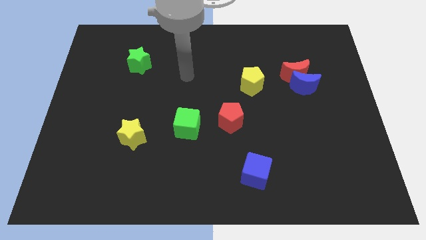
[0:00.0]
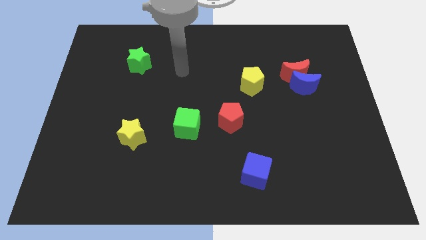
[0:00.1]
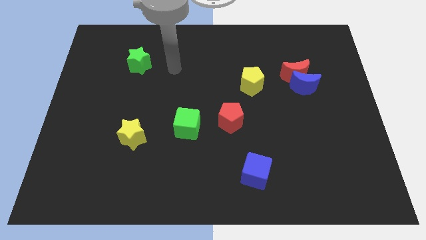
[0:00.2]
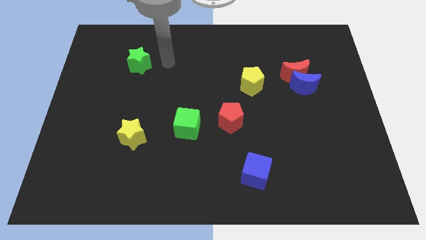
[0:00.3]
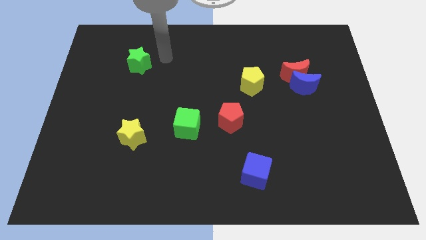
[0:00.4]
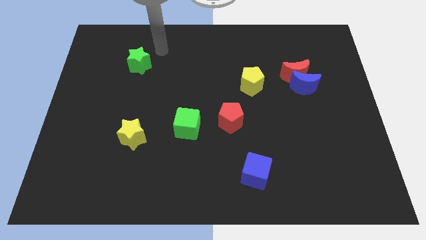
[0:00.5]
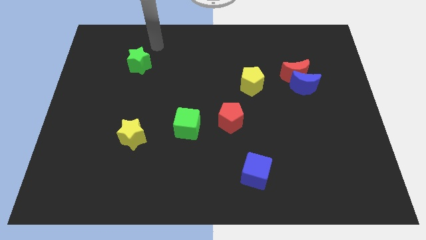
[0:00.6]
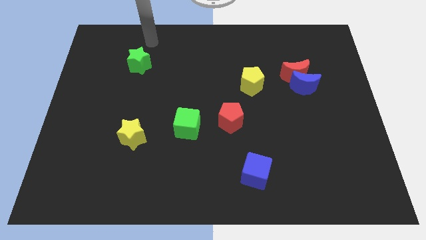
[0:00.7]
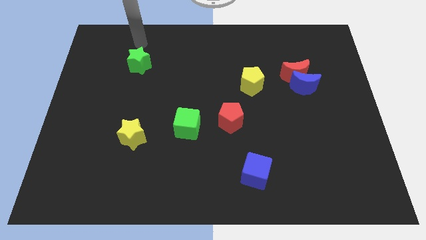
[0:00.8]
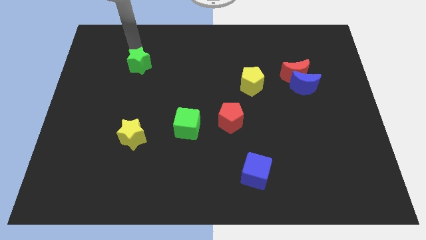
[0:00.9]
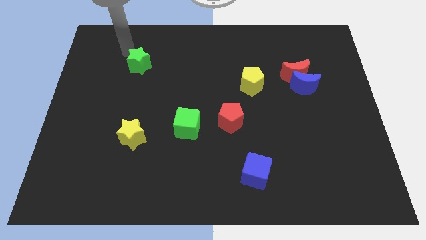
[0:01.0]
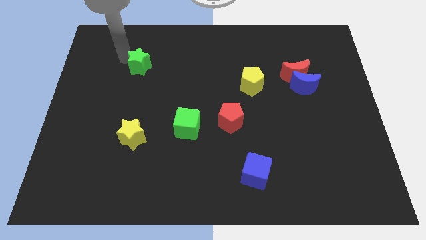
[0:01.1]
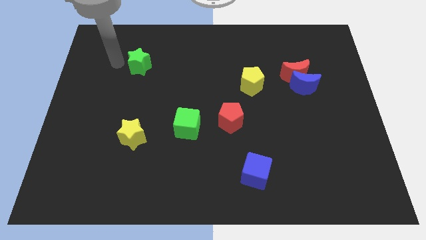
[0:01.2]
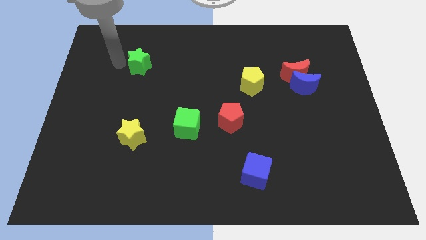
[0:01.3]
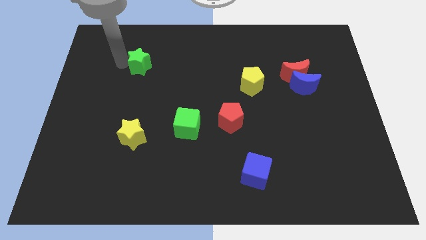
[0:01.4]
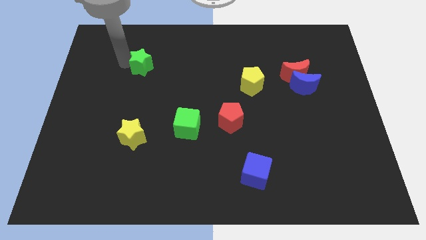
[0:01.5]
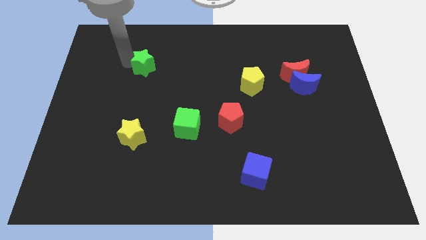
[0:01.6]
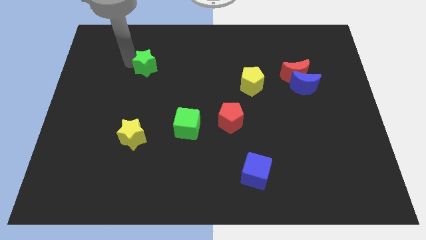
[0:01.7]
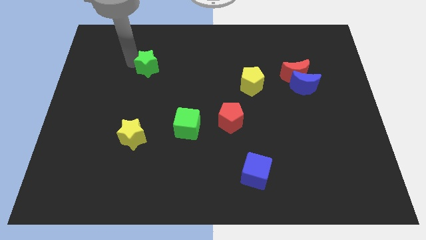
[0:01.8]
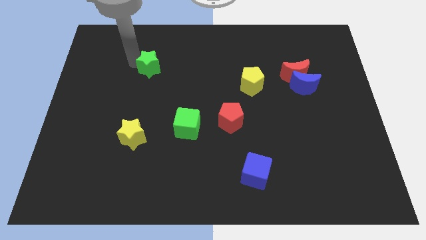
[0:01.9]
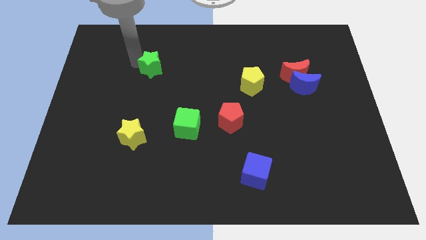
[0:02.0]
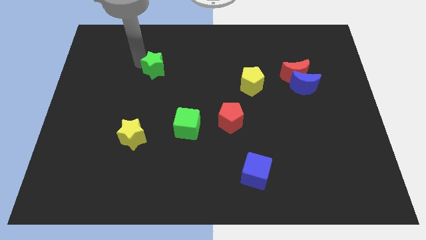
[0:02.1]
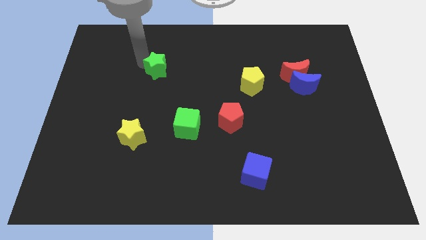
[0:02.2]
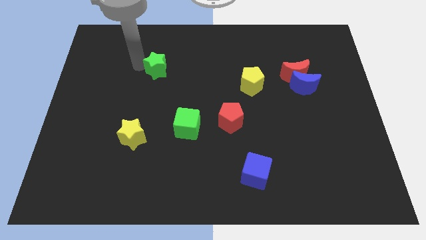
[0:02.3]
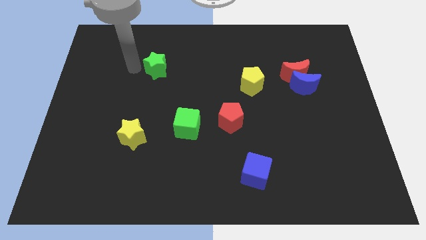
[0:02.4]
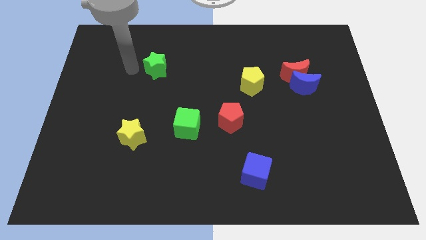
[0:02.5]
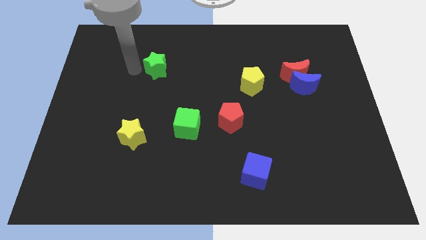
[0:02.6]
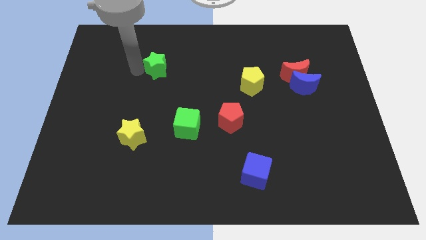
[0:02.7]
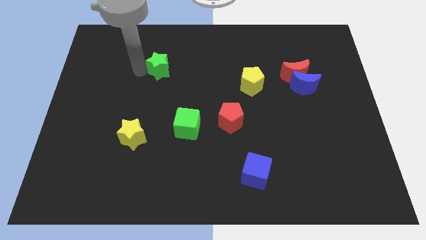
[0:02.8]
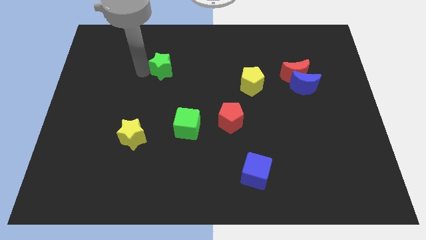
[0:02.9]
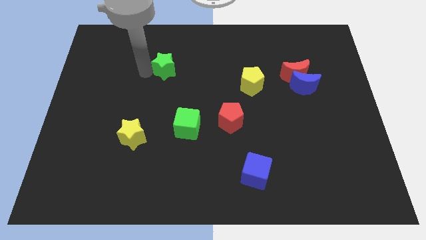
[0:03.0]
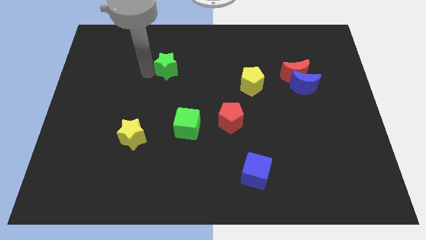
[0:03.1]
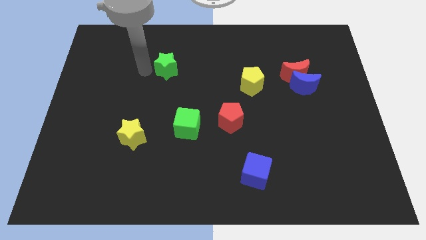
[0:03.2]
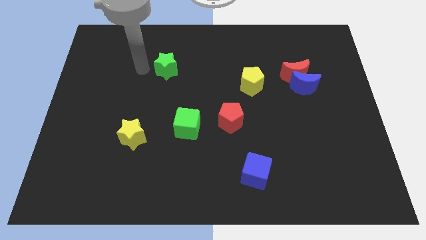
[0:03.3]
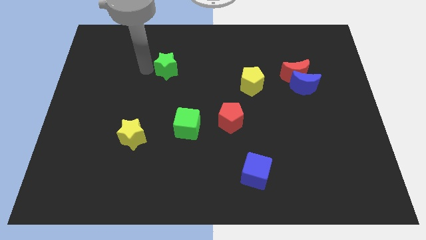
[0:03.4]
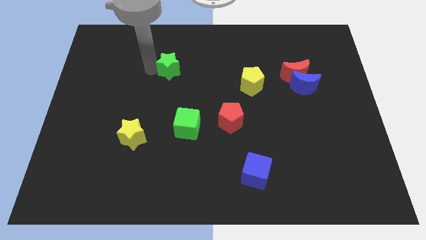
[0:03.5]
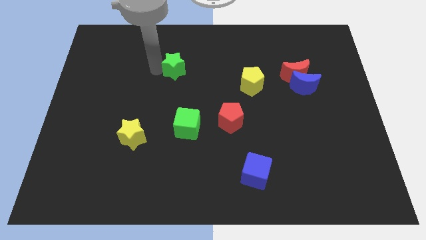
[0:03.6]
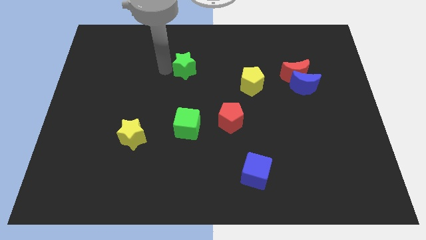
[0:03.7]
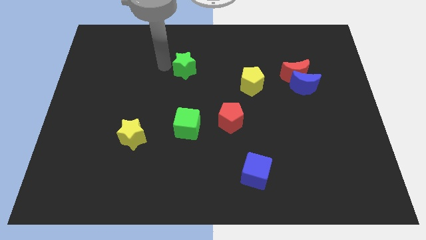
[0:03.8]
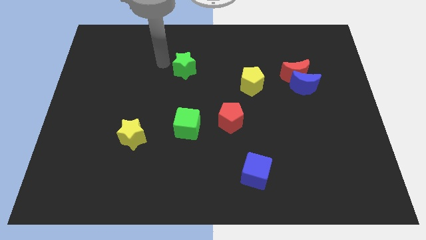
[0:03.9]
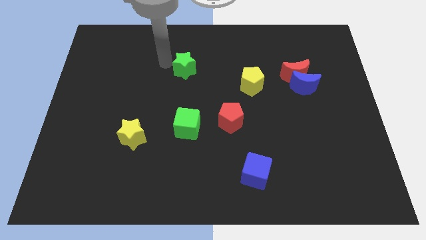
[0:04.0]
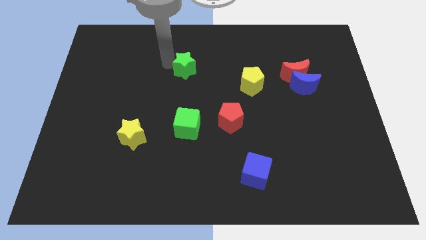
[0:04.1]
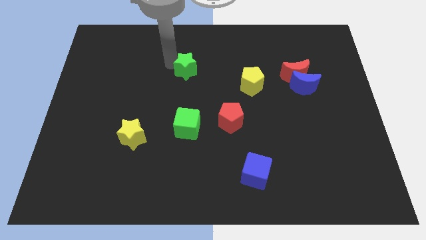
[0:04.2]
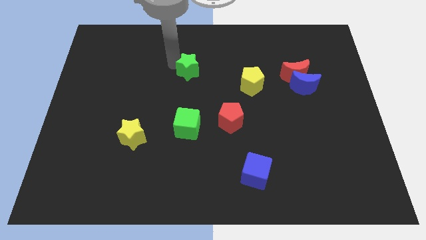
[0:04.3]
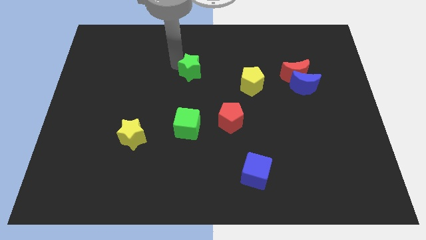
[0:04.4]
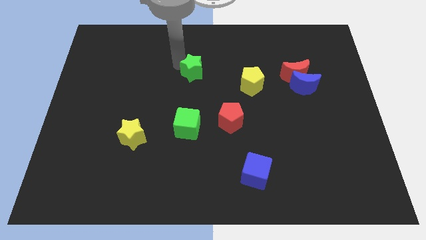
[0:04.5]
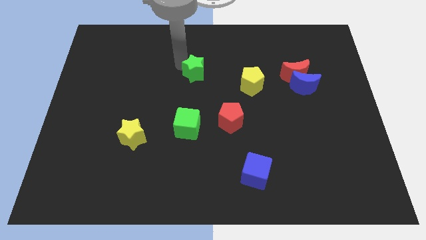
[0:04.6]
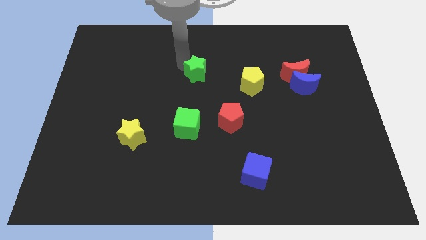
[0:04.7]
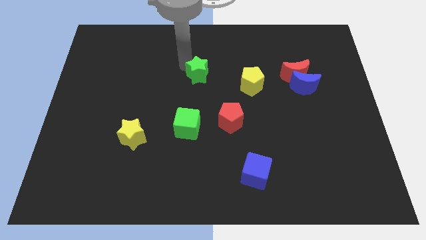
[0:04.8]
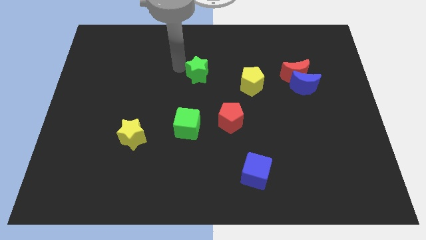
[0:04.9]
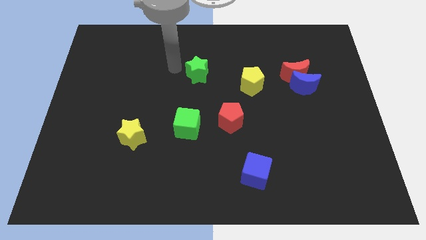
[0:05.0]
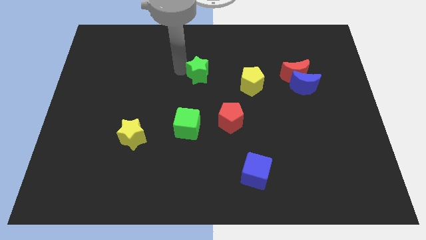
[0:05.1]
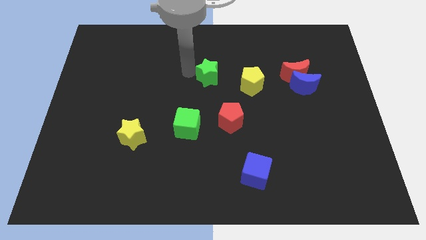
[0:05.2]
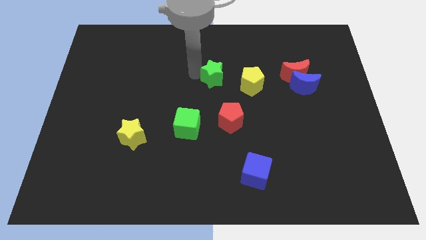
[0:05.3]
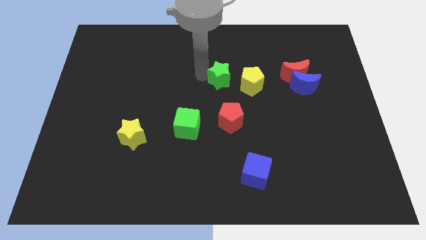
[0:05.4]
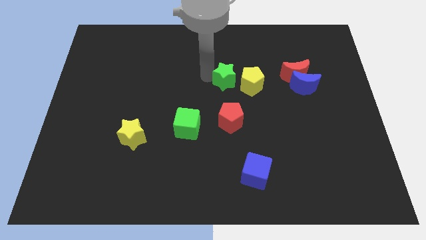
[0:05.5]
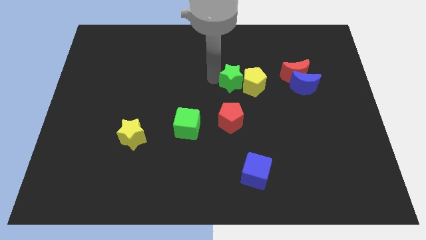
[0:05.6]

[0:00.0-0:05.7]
move the green star to the yellow pentagon

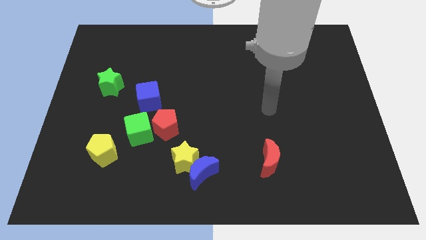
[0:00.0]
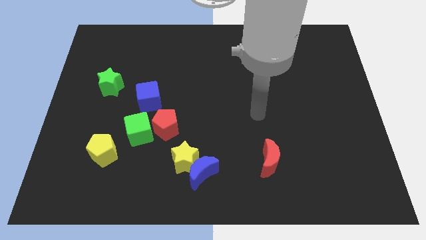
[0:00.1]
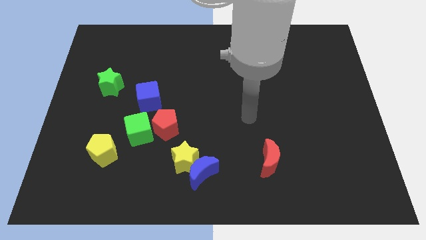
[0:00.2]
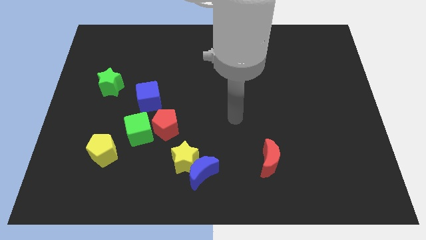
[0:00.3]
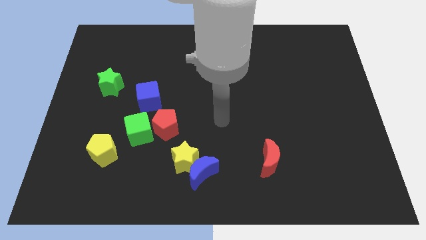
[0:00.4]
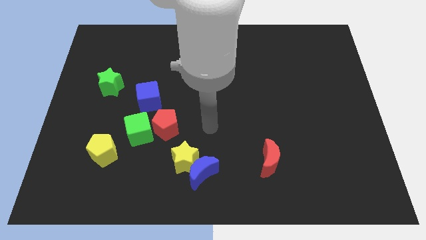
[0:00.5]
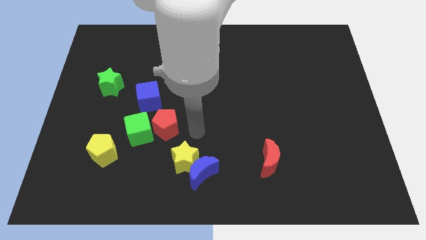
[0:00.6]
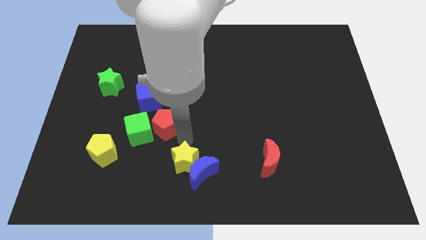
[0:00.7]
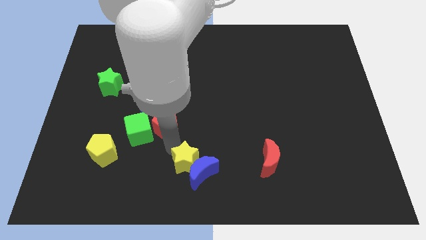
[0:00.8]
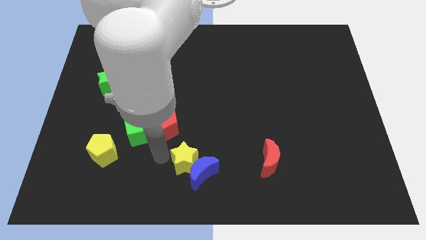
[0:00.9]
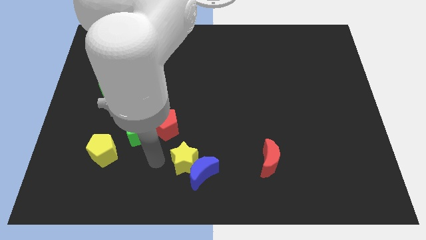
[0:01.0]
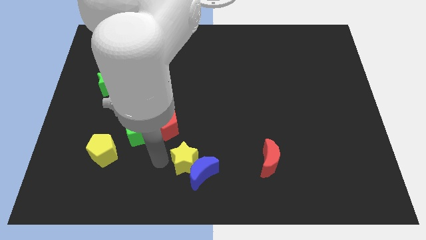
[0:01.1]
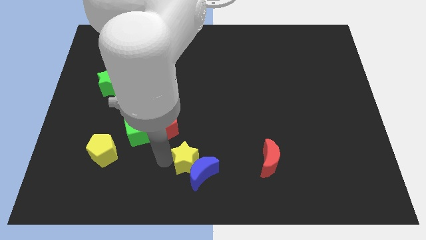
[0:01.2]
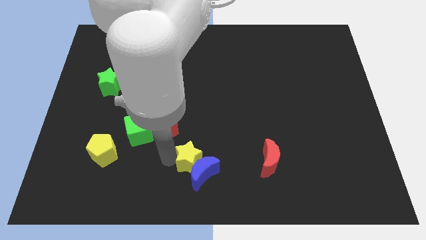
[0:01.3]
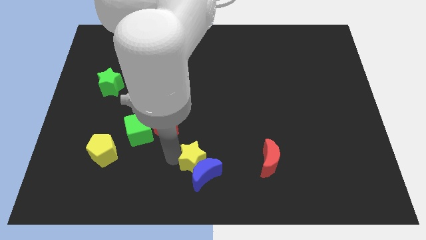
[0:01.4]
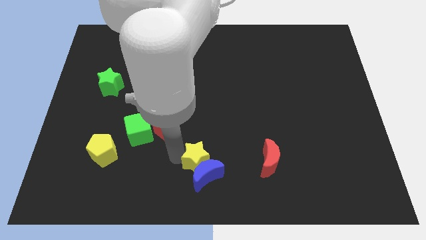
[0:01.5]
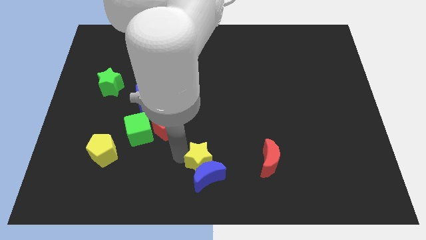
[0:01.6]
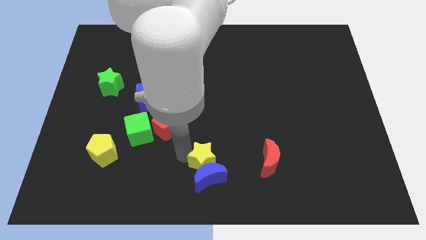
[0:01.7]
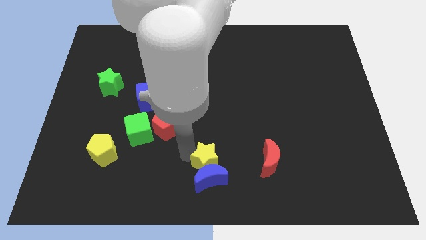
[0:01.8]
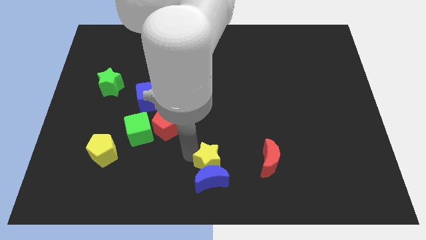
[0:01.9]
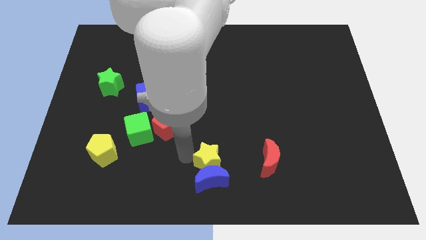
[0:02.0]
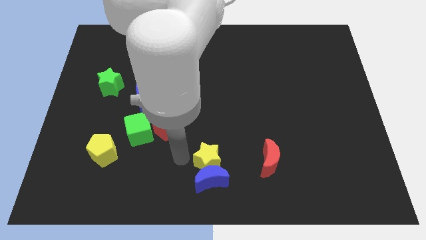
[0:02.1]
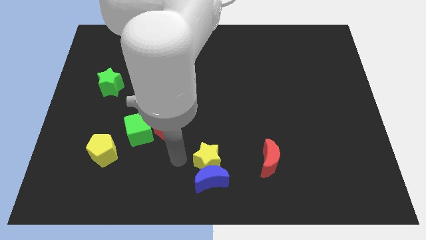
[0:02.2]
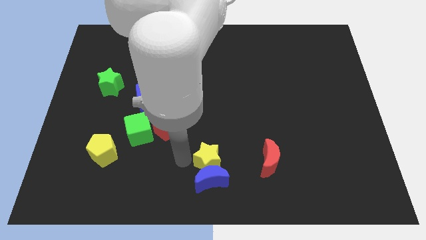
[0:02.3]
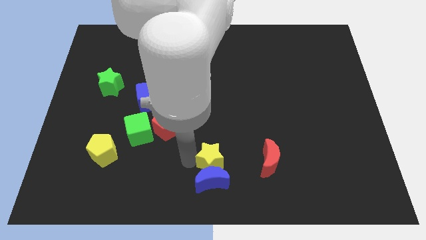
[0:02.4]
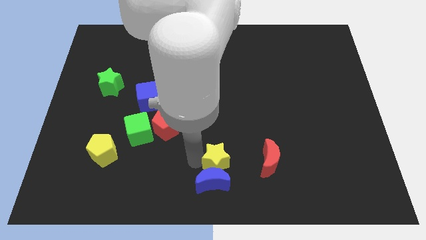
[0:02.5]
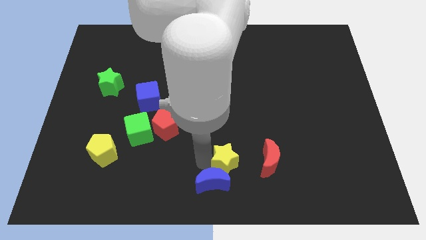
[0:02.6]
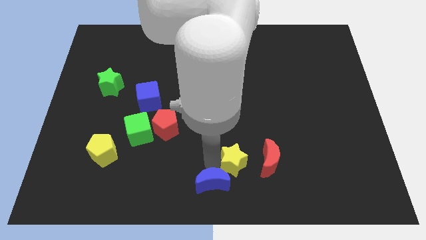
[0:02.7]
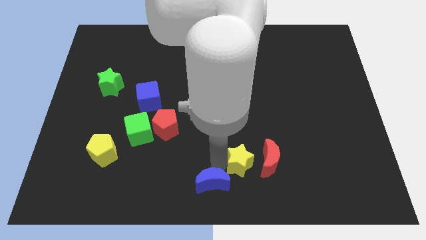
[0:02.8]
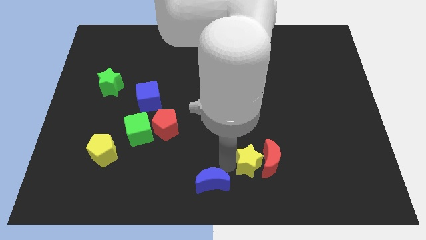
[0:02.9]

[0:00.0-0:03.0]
slide the yellow star next to the red moon
